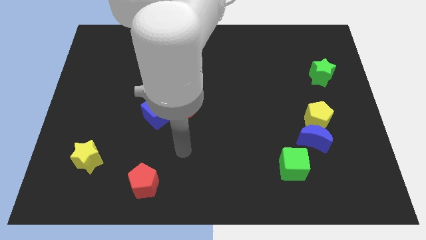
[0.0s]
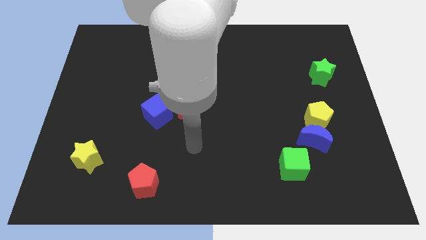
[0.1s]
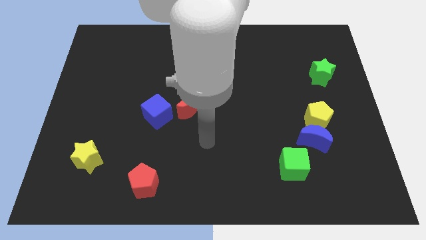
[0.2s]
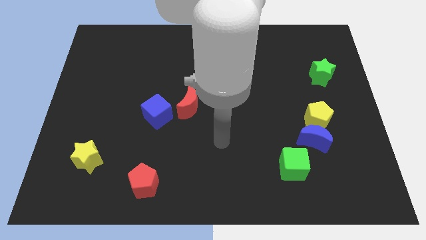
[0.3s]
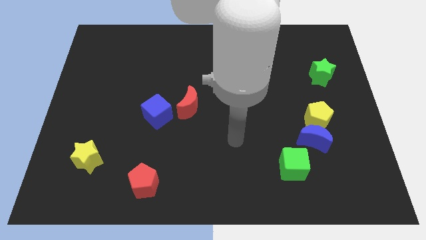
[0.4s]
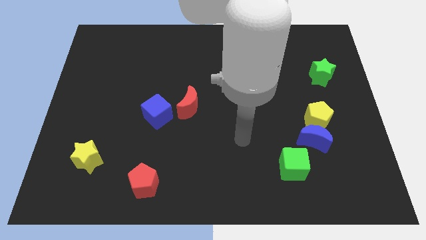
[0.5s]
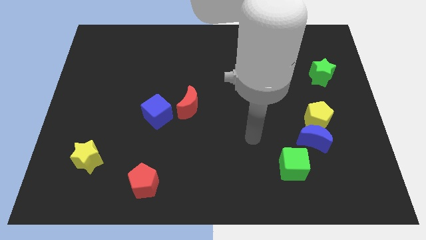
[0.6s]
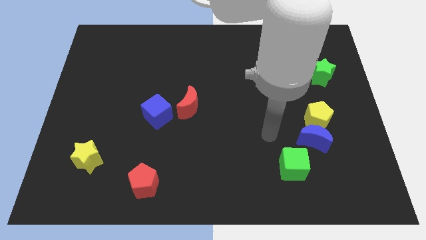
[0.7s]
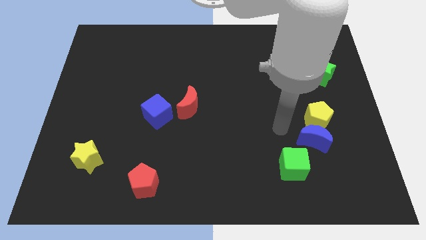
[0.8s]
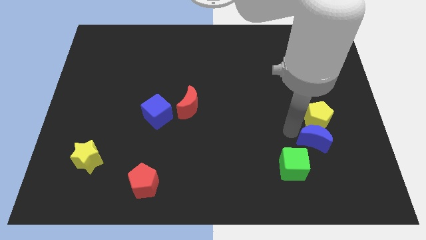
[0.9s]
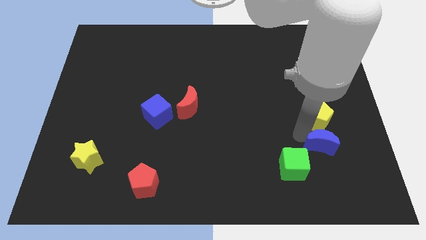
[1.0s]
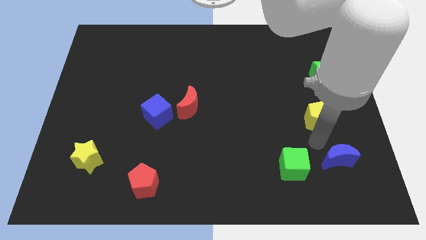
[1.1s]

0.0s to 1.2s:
move the yellow pentagon away from the blue moon

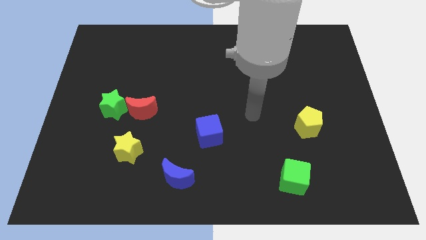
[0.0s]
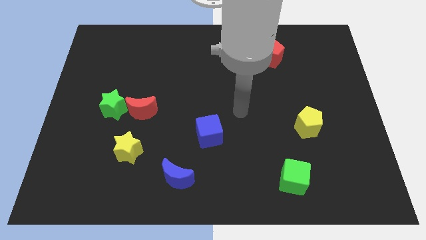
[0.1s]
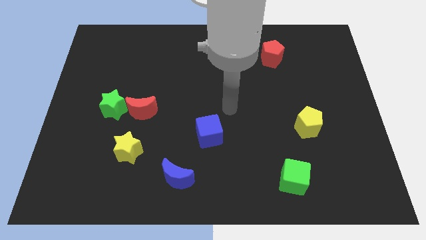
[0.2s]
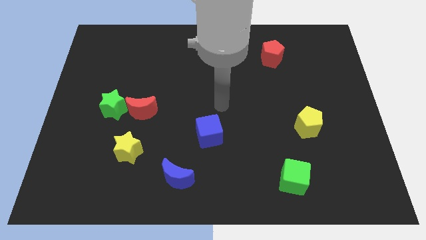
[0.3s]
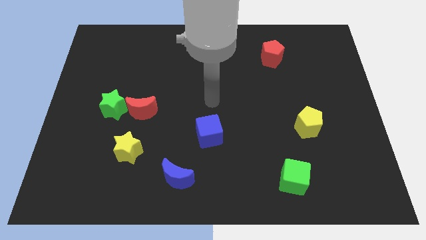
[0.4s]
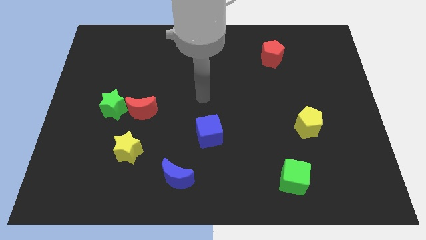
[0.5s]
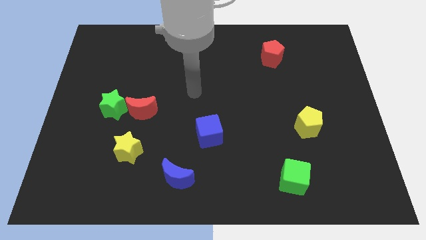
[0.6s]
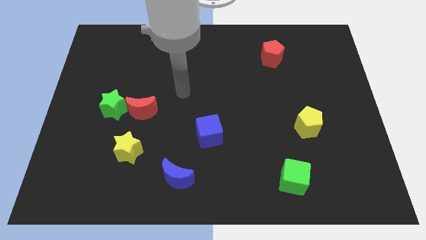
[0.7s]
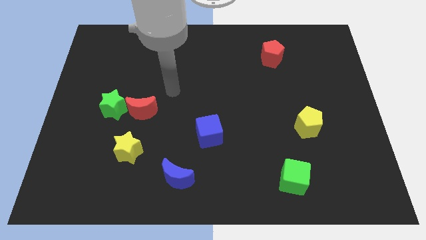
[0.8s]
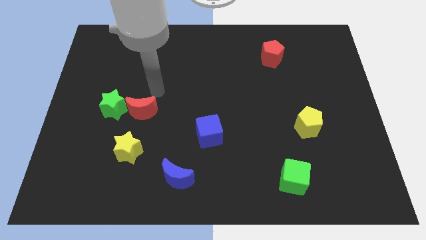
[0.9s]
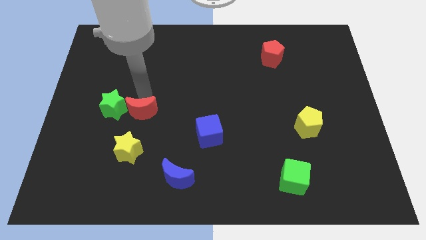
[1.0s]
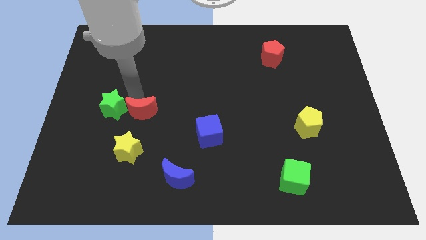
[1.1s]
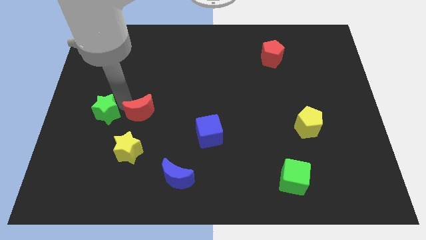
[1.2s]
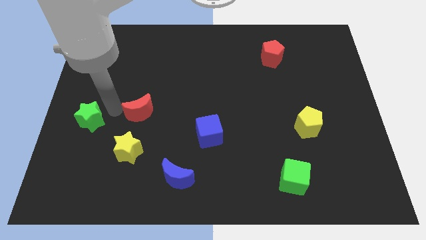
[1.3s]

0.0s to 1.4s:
move the red moon away from the green star

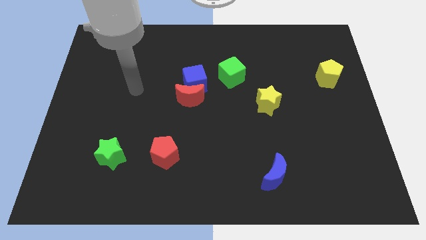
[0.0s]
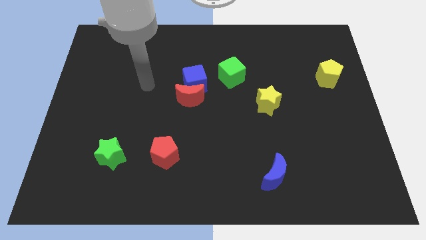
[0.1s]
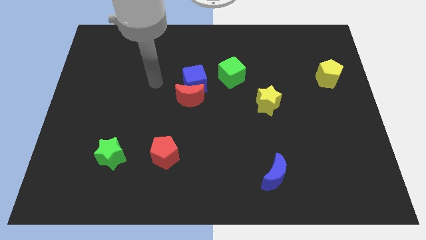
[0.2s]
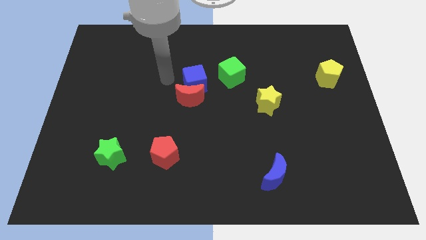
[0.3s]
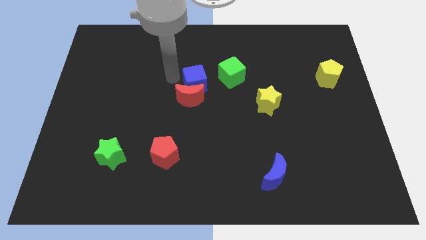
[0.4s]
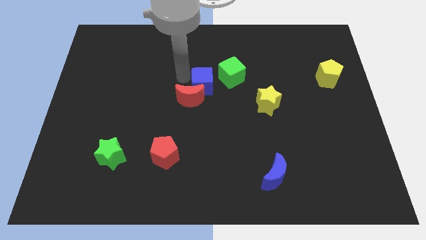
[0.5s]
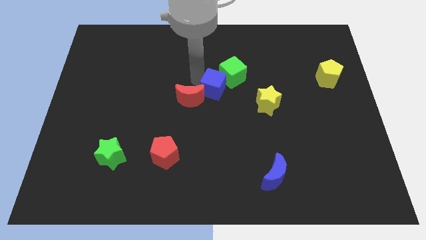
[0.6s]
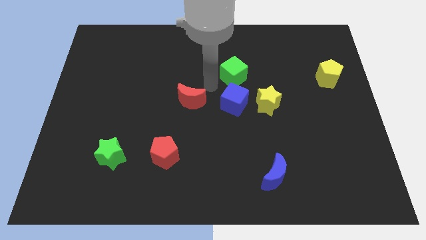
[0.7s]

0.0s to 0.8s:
move the red moon away from the blue cube

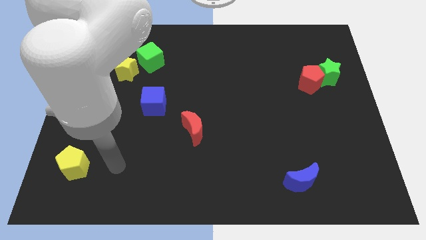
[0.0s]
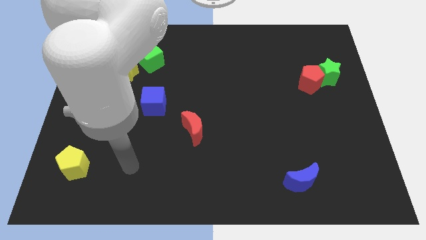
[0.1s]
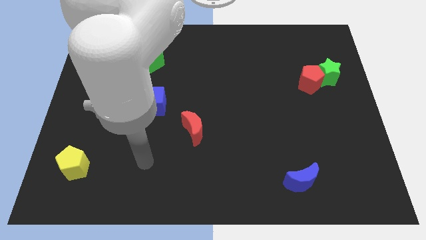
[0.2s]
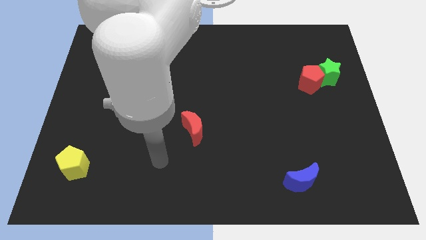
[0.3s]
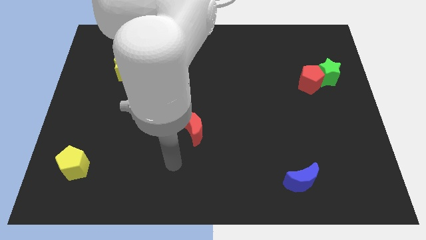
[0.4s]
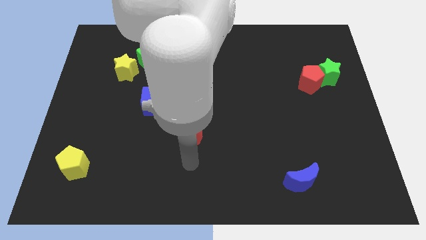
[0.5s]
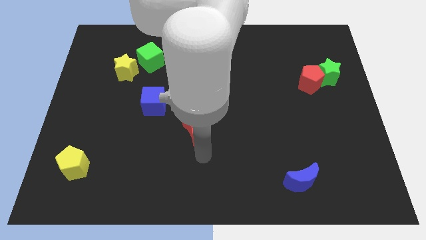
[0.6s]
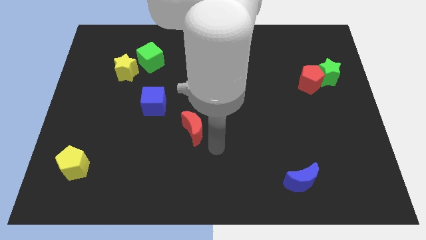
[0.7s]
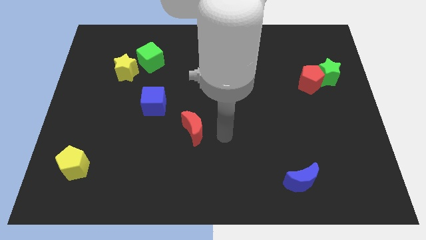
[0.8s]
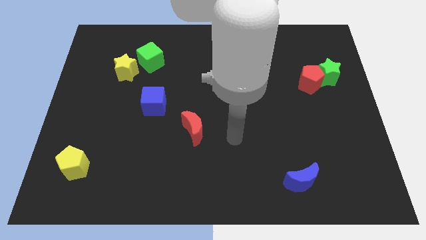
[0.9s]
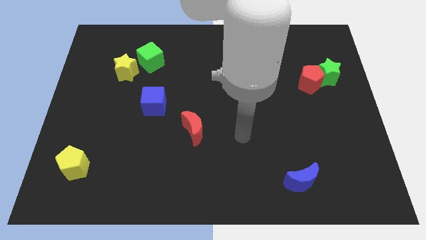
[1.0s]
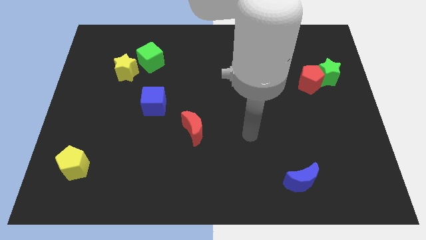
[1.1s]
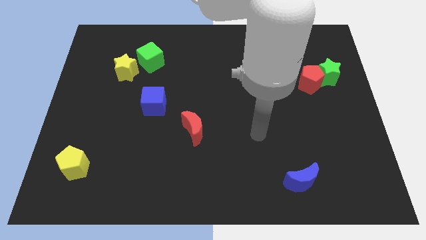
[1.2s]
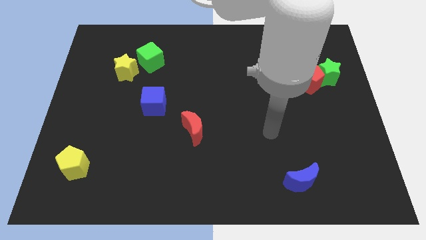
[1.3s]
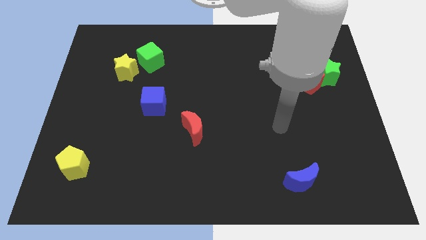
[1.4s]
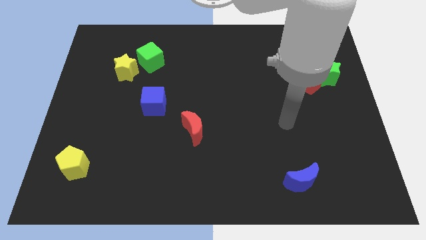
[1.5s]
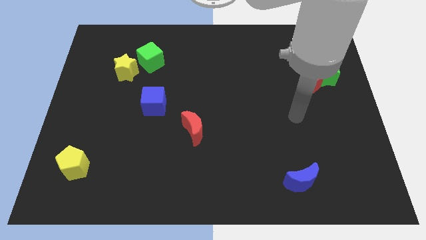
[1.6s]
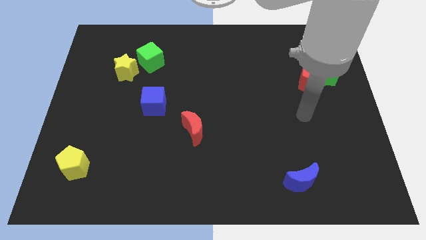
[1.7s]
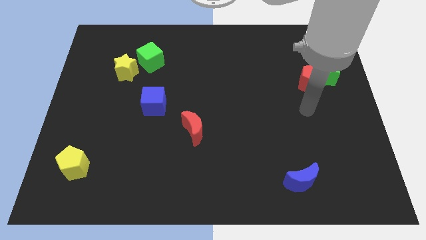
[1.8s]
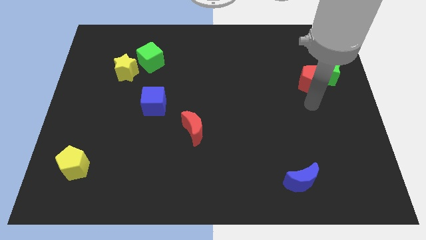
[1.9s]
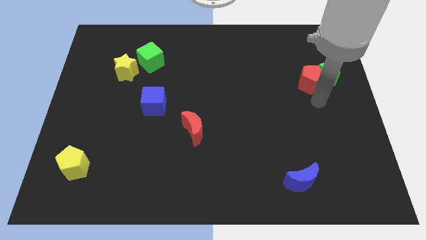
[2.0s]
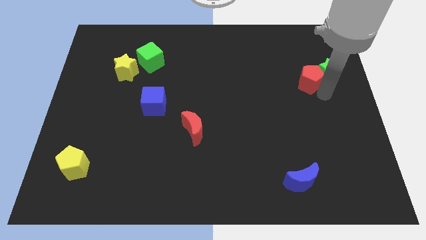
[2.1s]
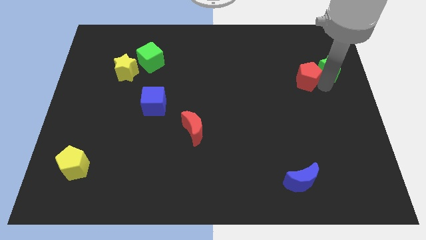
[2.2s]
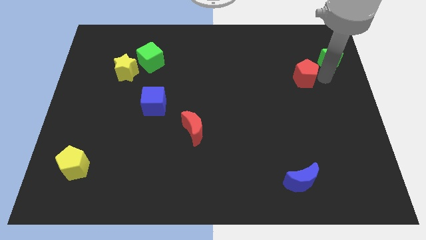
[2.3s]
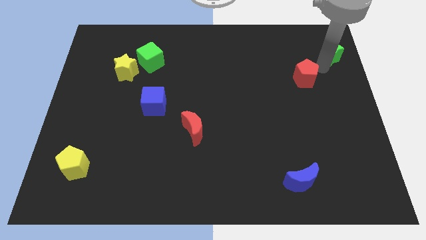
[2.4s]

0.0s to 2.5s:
separate the red pentagon from the green star

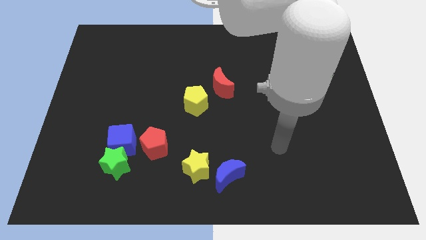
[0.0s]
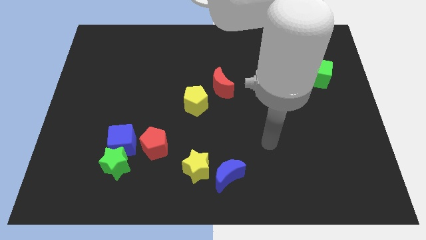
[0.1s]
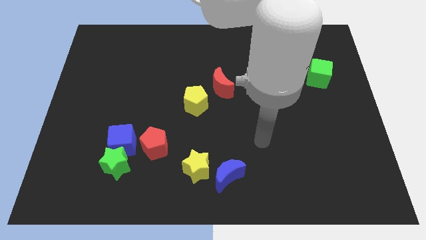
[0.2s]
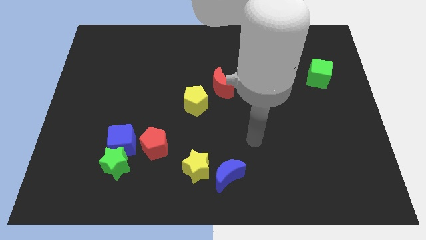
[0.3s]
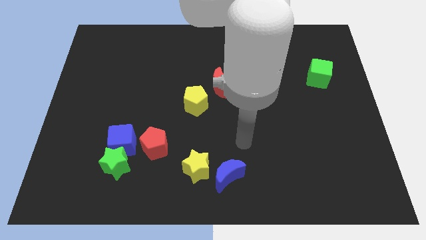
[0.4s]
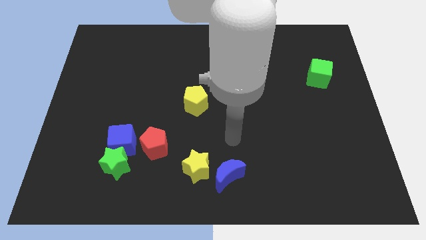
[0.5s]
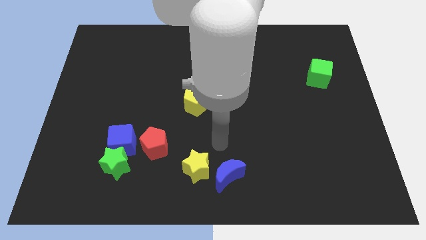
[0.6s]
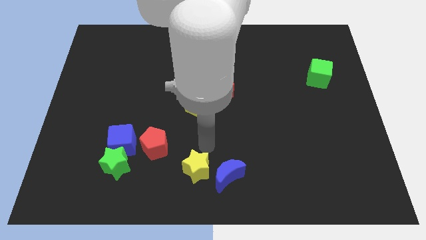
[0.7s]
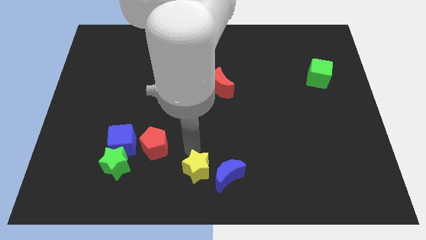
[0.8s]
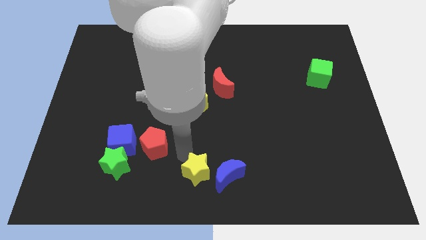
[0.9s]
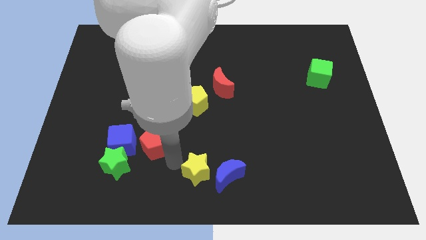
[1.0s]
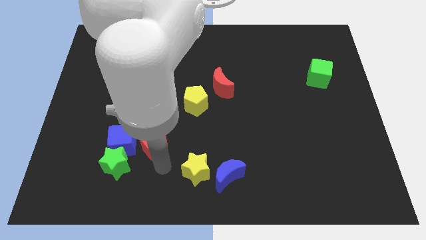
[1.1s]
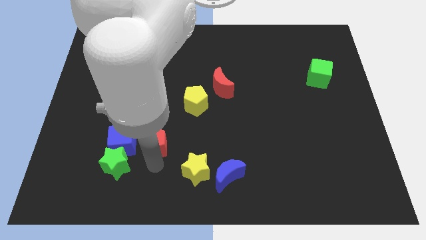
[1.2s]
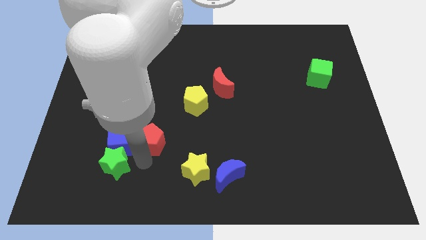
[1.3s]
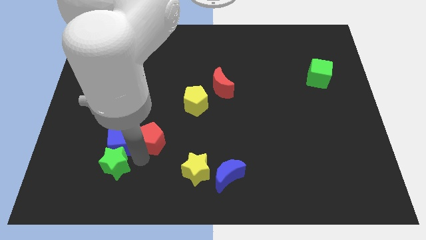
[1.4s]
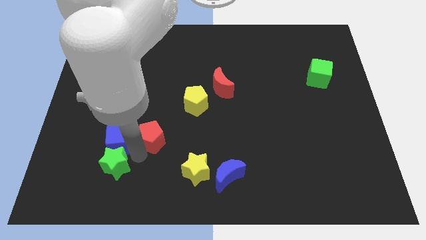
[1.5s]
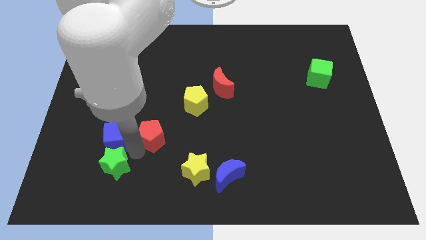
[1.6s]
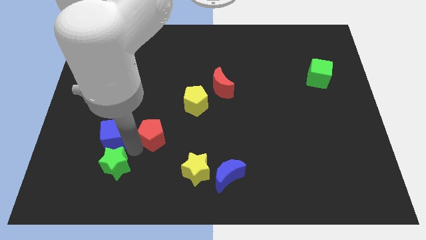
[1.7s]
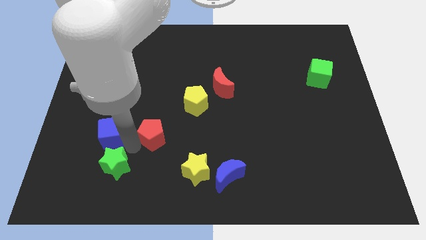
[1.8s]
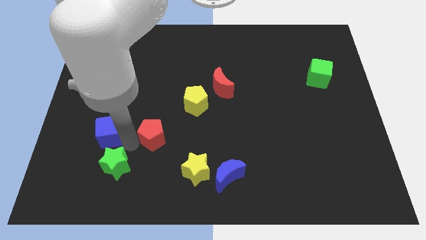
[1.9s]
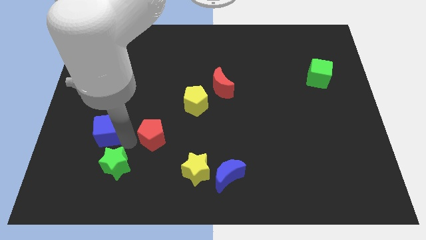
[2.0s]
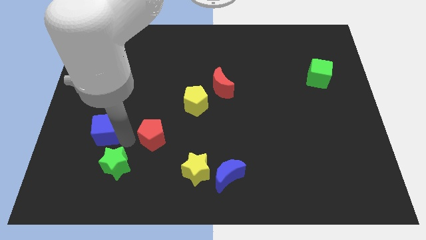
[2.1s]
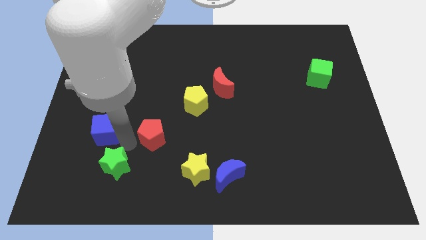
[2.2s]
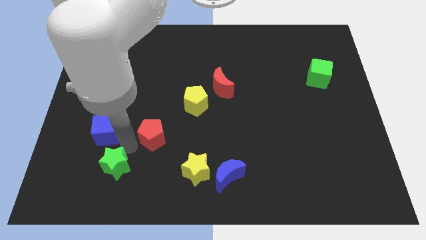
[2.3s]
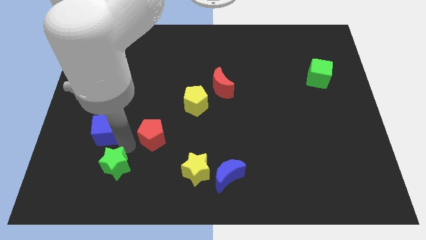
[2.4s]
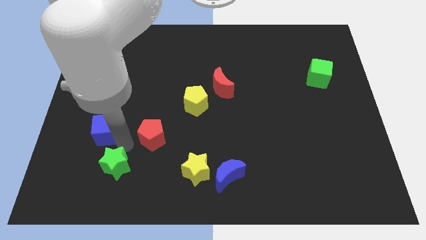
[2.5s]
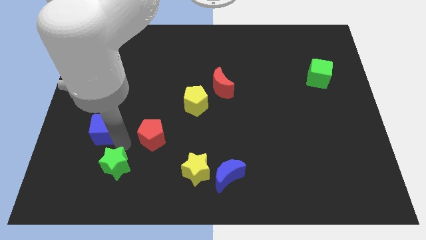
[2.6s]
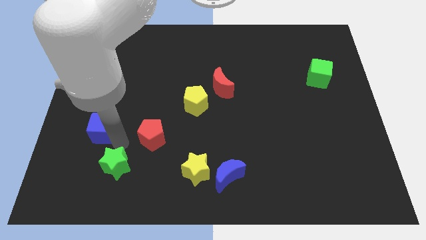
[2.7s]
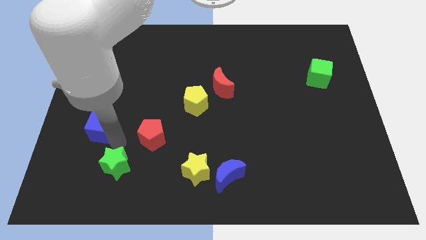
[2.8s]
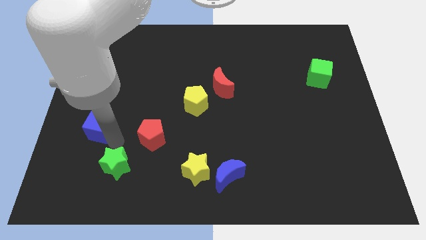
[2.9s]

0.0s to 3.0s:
separate the blue cube from the green star and red pentagon

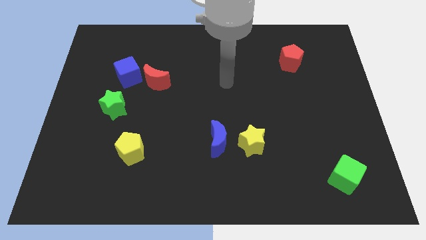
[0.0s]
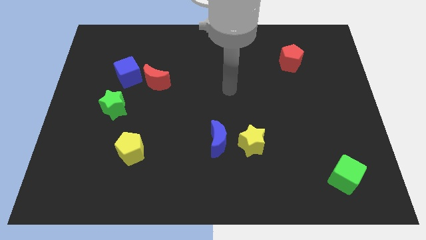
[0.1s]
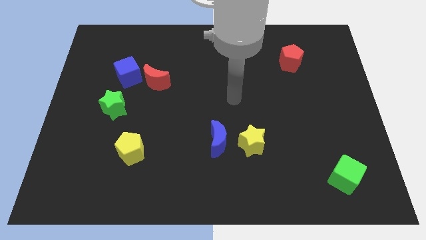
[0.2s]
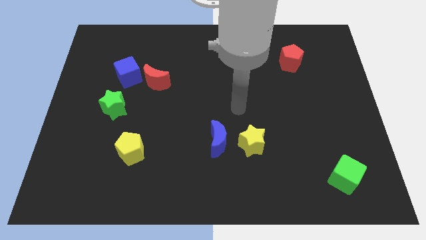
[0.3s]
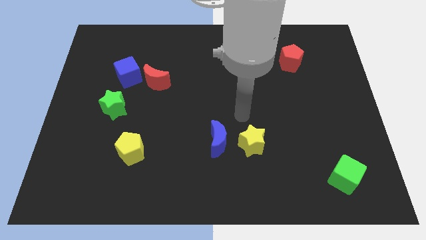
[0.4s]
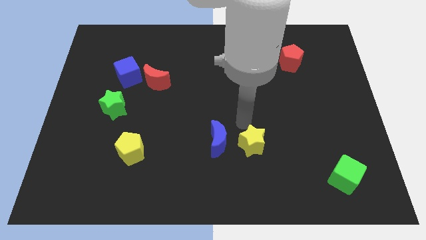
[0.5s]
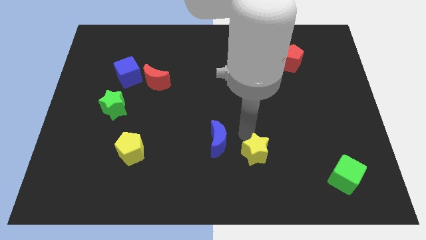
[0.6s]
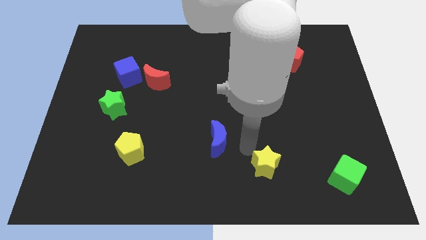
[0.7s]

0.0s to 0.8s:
move the blue moon away from the yellow star
